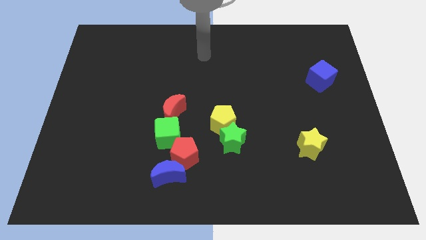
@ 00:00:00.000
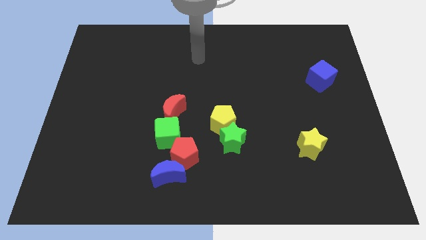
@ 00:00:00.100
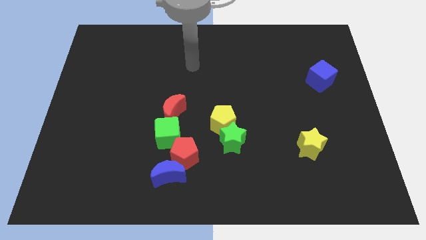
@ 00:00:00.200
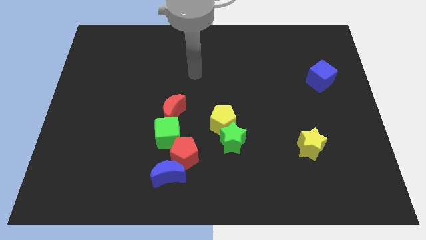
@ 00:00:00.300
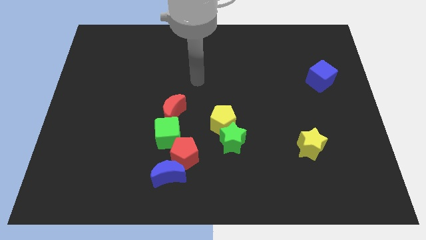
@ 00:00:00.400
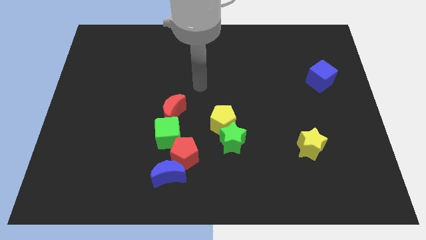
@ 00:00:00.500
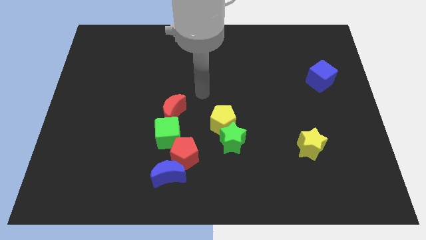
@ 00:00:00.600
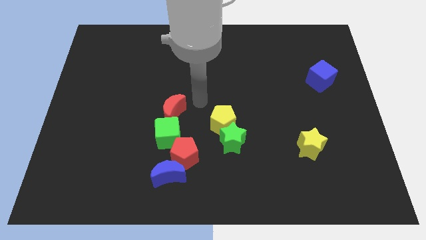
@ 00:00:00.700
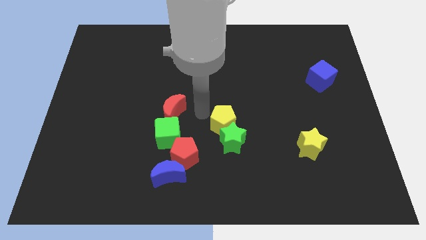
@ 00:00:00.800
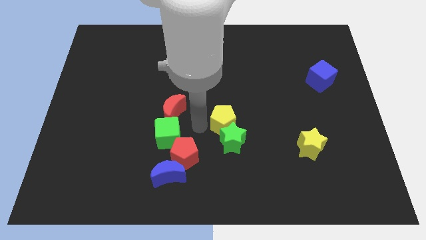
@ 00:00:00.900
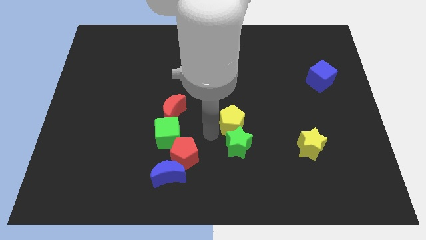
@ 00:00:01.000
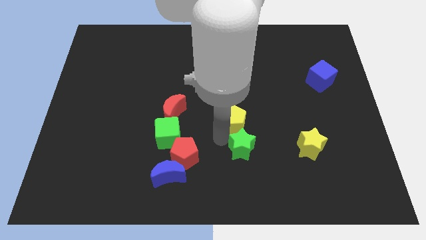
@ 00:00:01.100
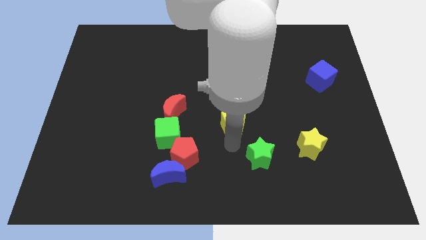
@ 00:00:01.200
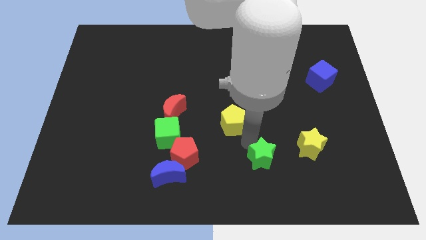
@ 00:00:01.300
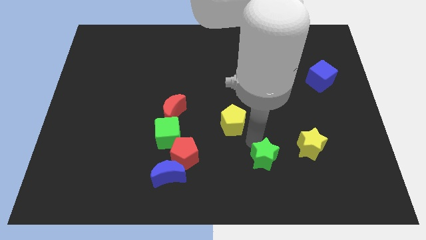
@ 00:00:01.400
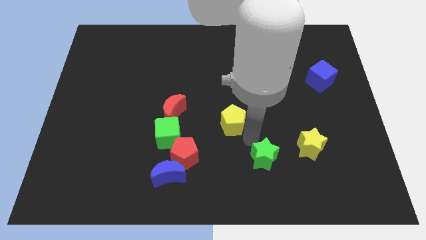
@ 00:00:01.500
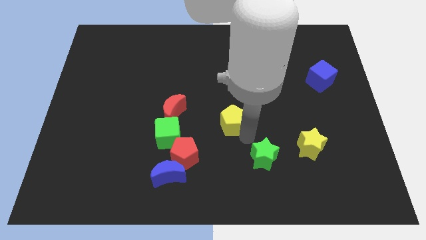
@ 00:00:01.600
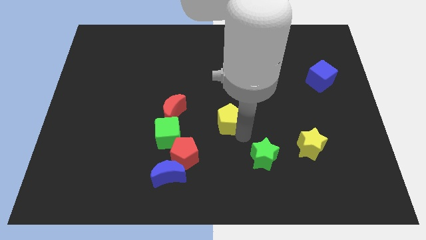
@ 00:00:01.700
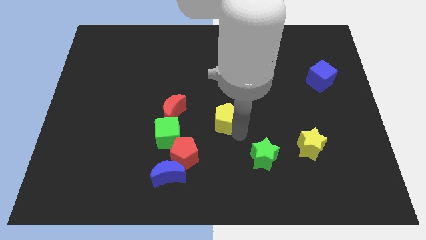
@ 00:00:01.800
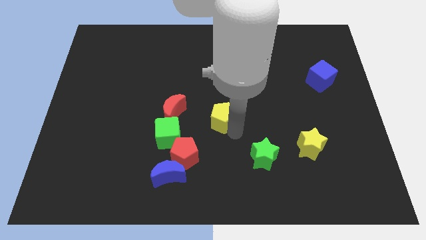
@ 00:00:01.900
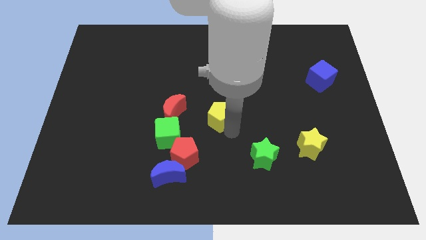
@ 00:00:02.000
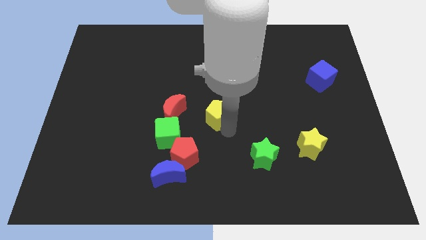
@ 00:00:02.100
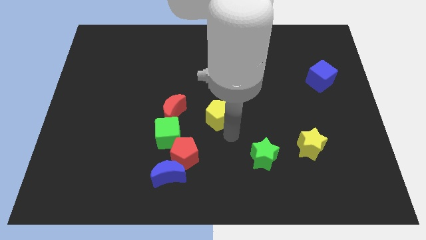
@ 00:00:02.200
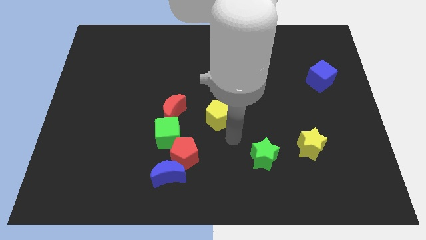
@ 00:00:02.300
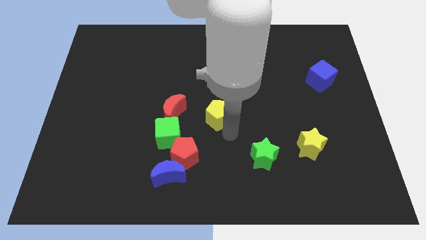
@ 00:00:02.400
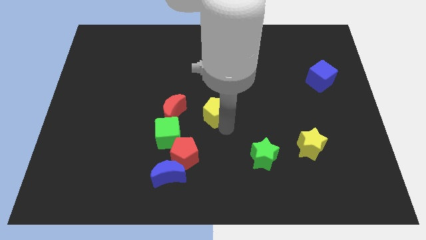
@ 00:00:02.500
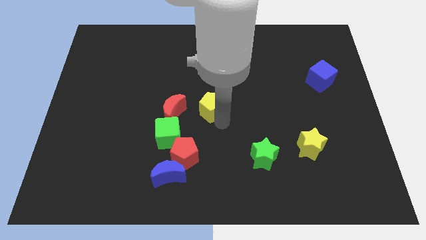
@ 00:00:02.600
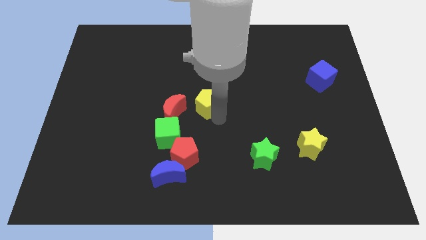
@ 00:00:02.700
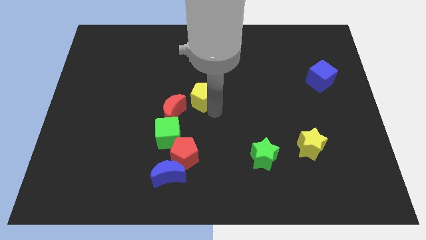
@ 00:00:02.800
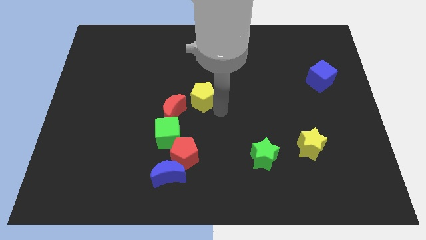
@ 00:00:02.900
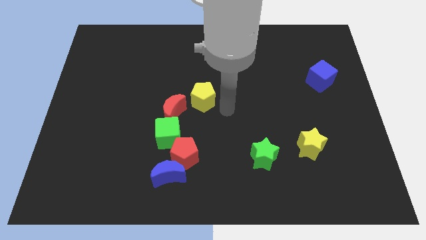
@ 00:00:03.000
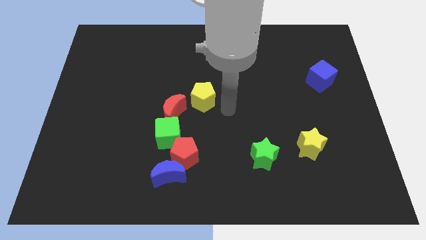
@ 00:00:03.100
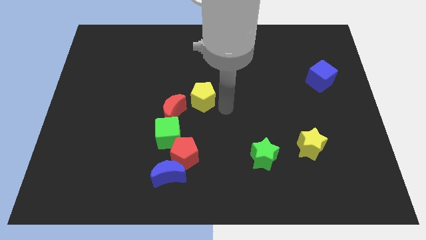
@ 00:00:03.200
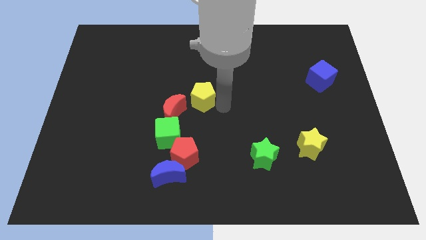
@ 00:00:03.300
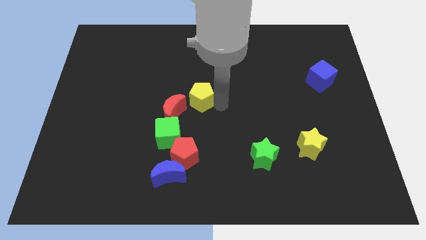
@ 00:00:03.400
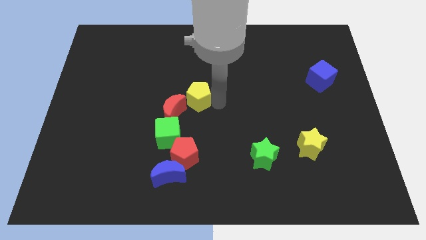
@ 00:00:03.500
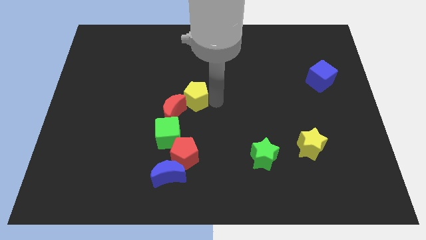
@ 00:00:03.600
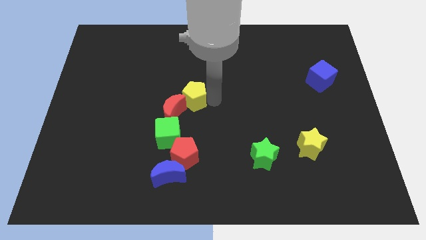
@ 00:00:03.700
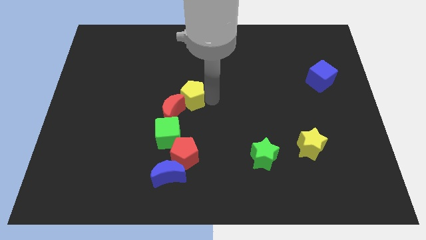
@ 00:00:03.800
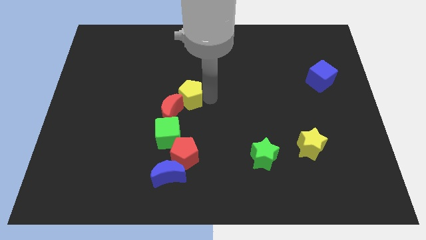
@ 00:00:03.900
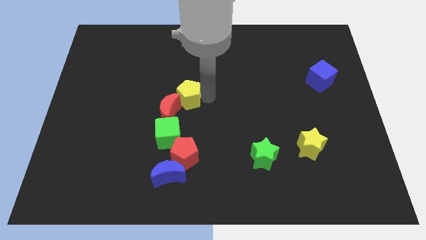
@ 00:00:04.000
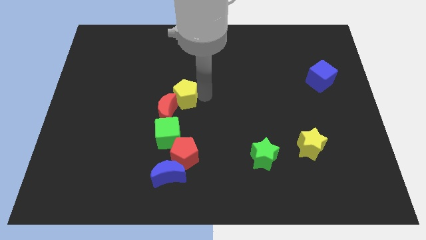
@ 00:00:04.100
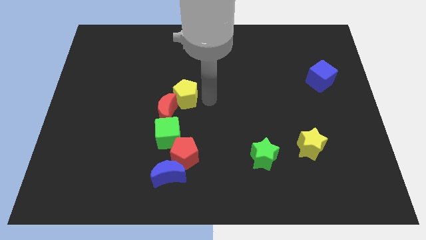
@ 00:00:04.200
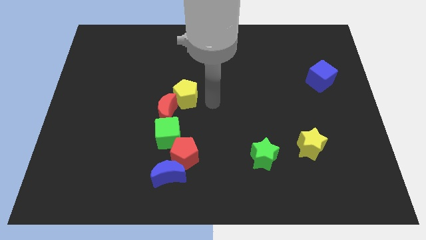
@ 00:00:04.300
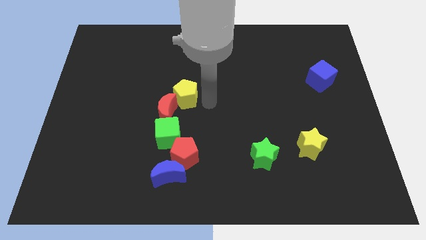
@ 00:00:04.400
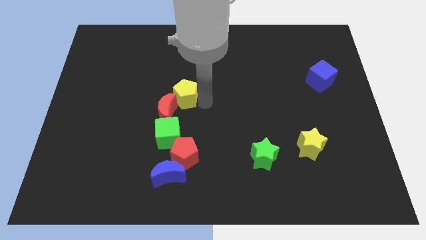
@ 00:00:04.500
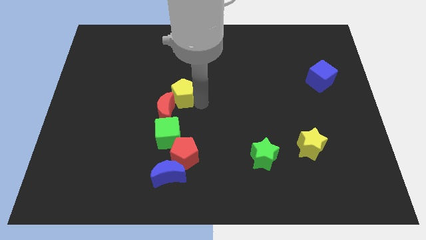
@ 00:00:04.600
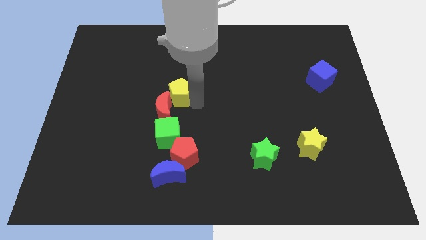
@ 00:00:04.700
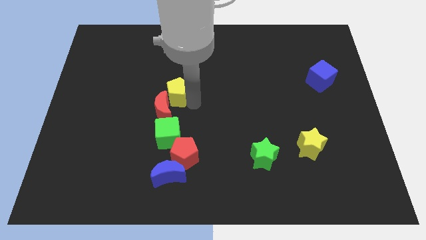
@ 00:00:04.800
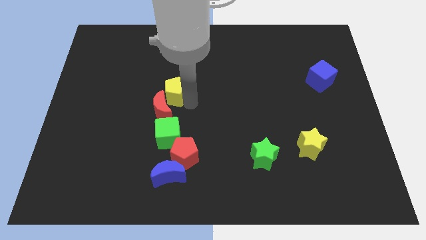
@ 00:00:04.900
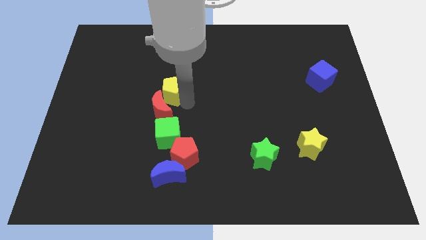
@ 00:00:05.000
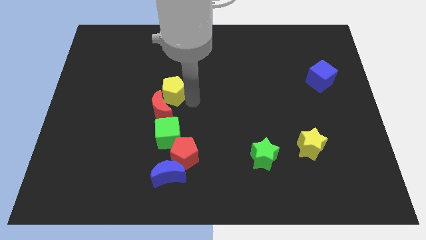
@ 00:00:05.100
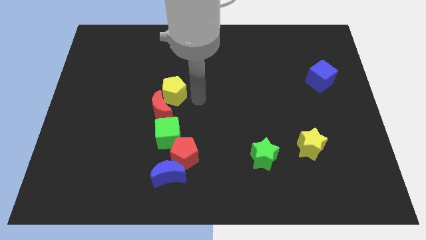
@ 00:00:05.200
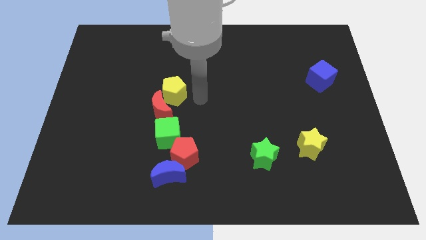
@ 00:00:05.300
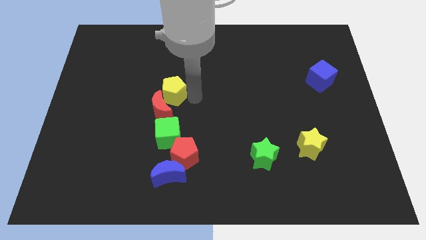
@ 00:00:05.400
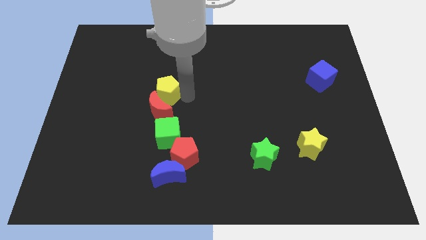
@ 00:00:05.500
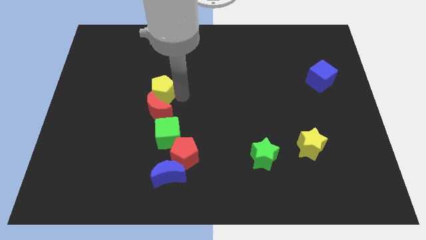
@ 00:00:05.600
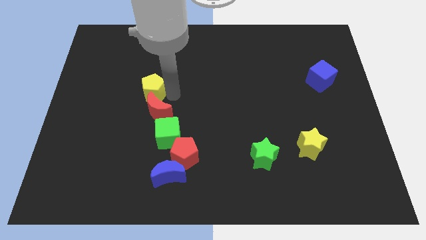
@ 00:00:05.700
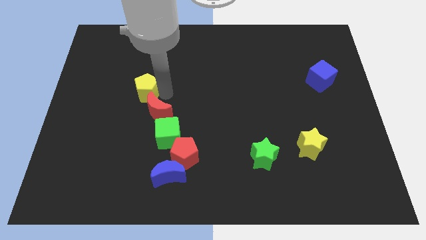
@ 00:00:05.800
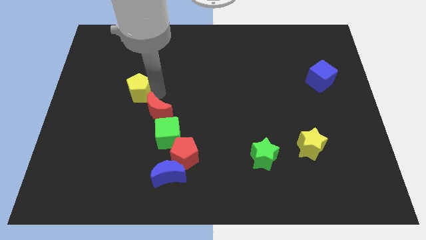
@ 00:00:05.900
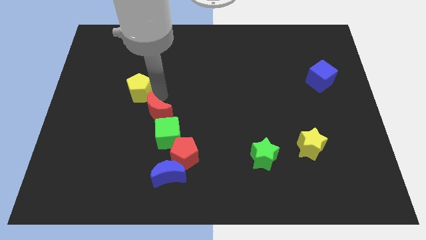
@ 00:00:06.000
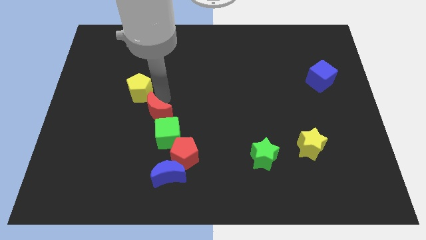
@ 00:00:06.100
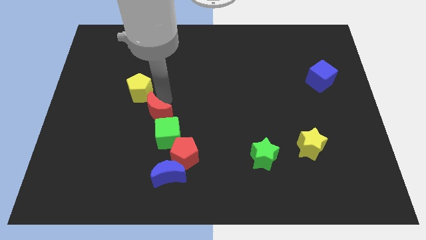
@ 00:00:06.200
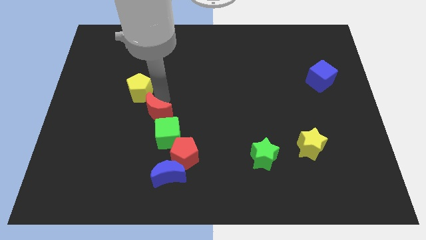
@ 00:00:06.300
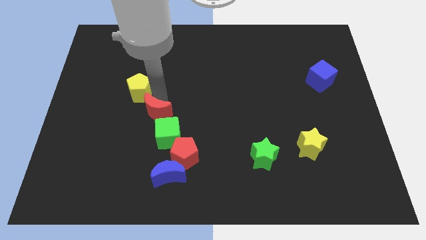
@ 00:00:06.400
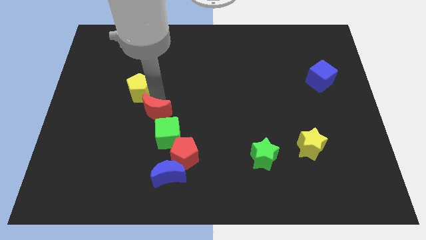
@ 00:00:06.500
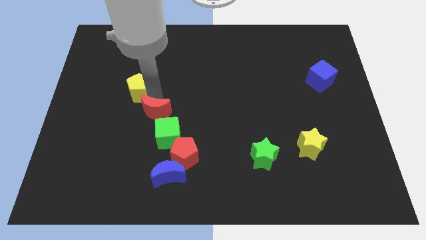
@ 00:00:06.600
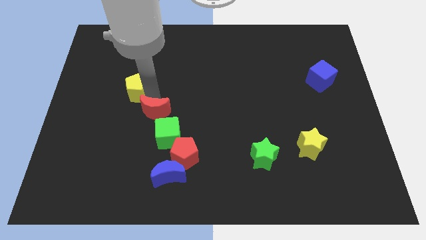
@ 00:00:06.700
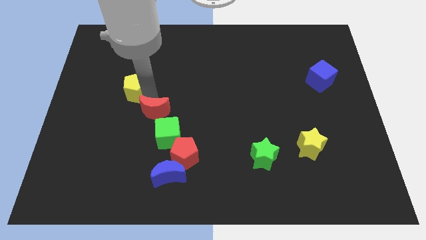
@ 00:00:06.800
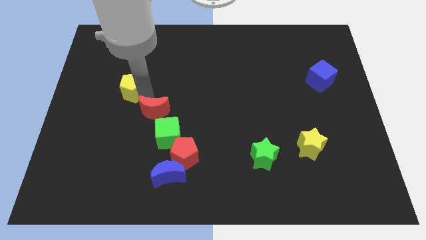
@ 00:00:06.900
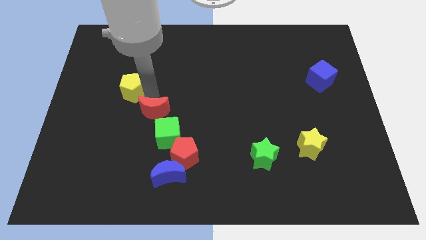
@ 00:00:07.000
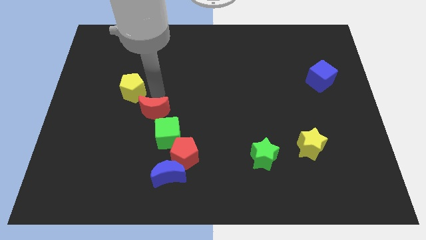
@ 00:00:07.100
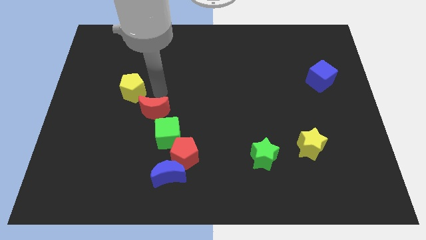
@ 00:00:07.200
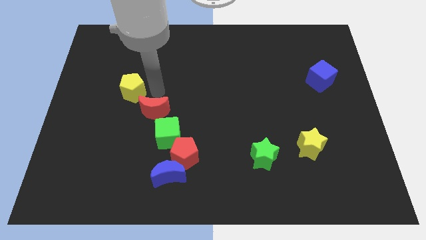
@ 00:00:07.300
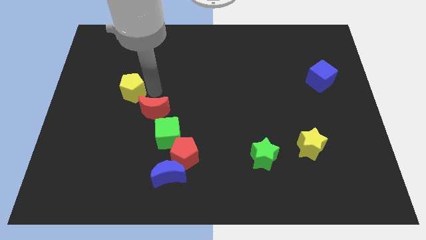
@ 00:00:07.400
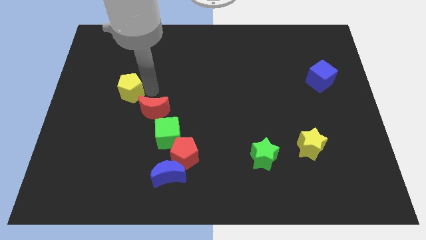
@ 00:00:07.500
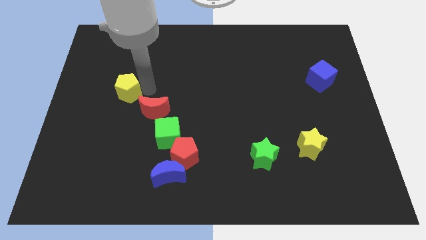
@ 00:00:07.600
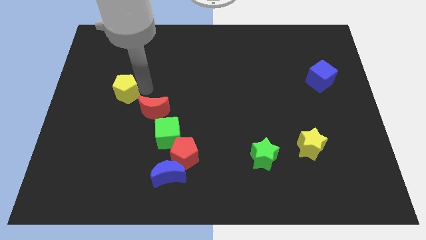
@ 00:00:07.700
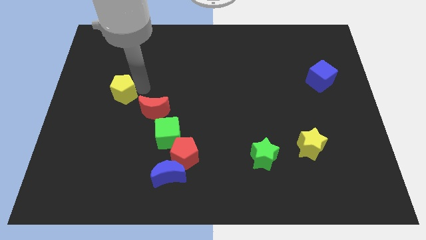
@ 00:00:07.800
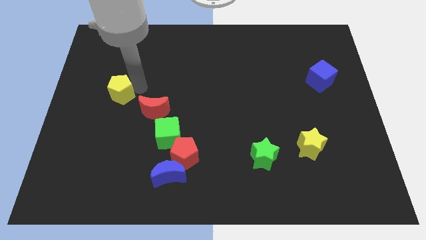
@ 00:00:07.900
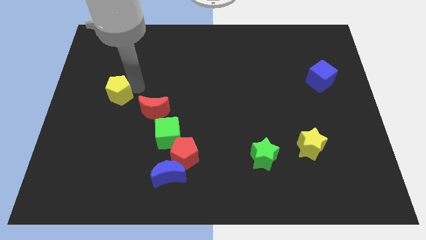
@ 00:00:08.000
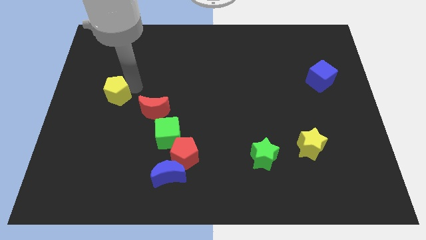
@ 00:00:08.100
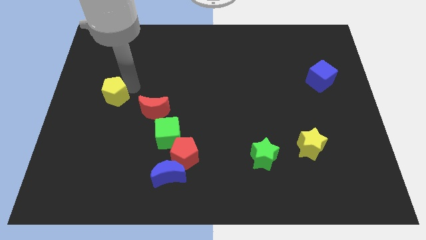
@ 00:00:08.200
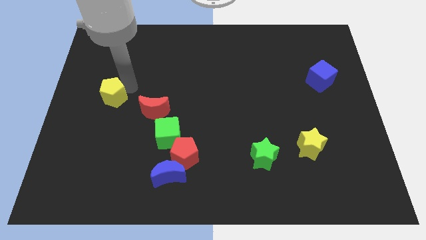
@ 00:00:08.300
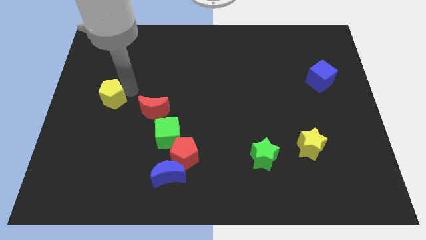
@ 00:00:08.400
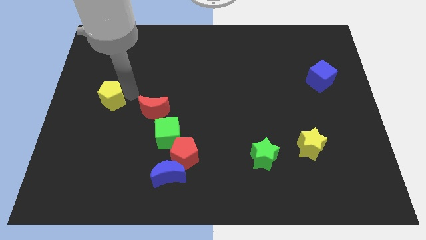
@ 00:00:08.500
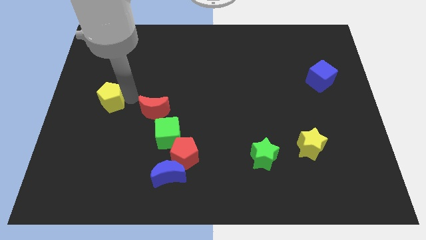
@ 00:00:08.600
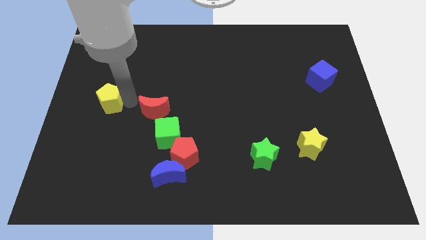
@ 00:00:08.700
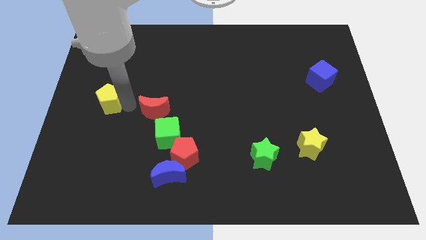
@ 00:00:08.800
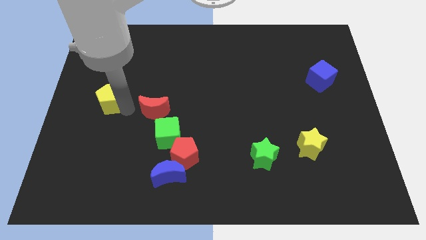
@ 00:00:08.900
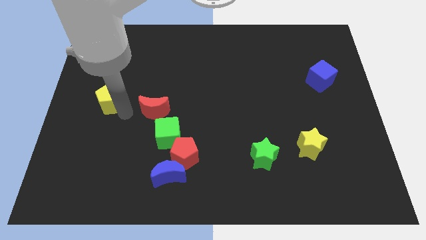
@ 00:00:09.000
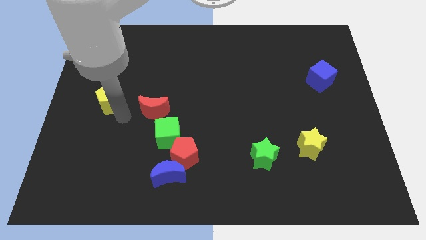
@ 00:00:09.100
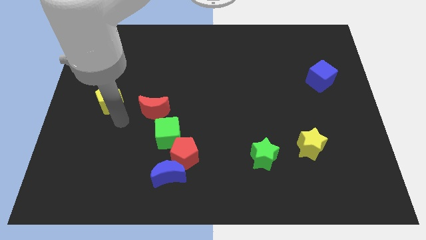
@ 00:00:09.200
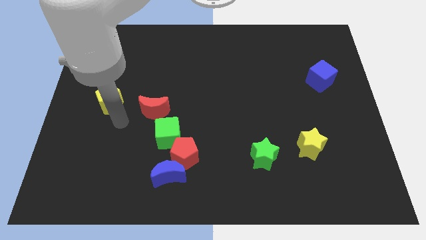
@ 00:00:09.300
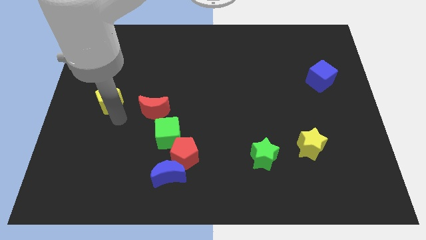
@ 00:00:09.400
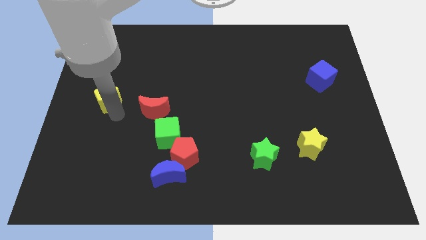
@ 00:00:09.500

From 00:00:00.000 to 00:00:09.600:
move the yellow pentagon to the left side
